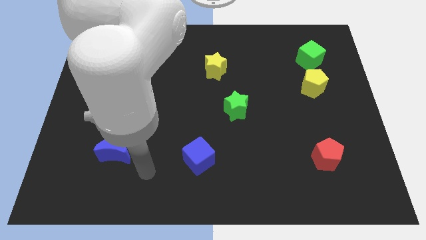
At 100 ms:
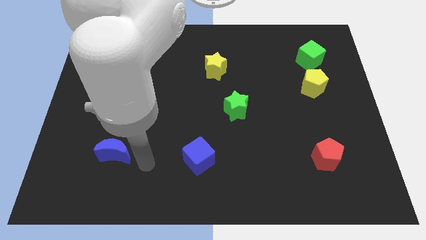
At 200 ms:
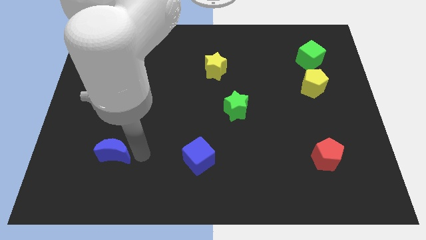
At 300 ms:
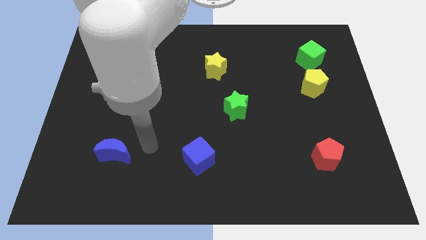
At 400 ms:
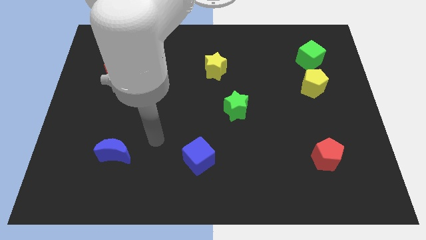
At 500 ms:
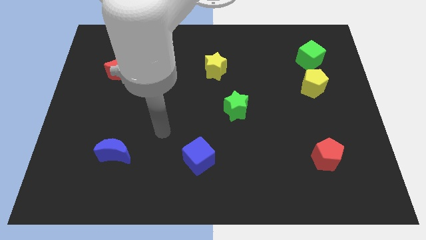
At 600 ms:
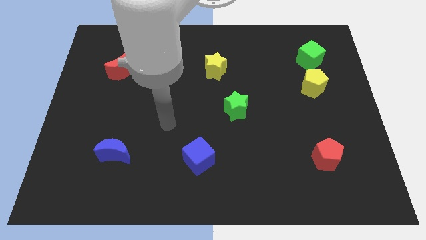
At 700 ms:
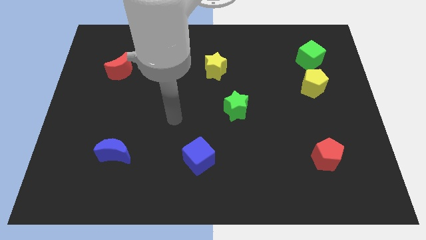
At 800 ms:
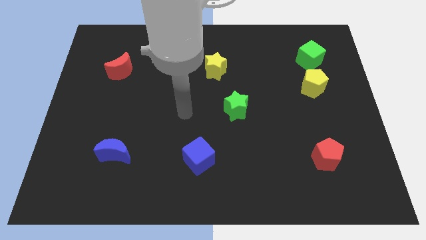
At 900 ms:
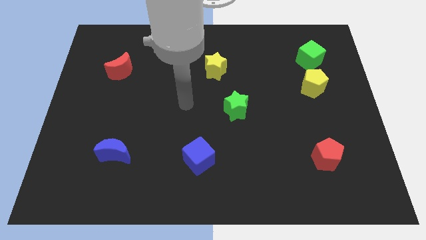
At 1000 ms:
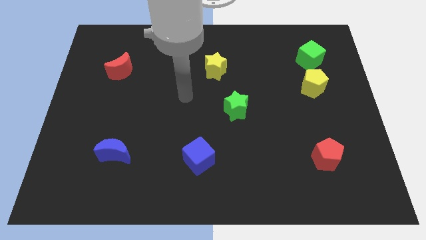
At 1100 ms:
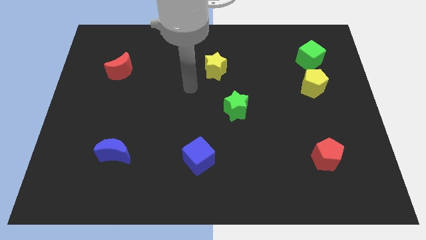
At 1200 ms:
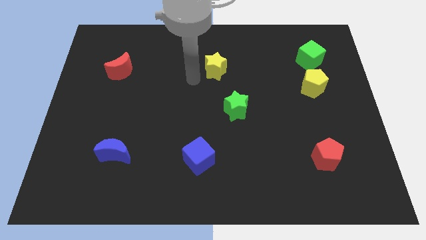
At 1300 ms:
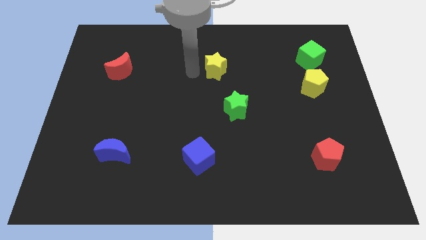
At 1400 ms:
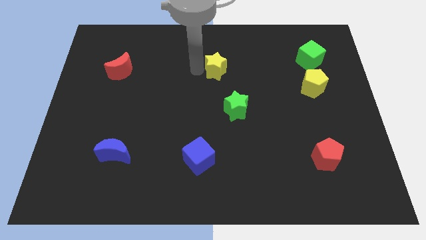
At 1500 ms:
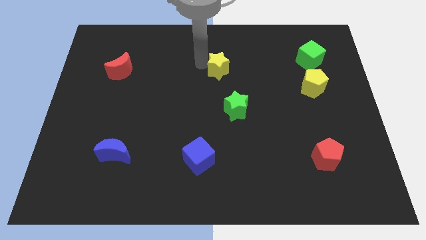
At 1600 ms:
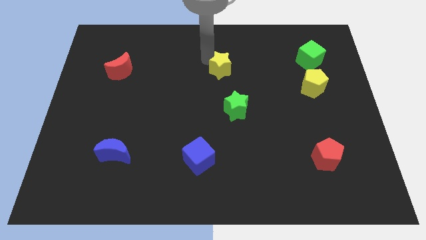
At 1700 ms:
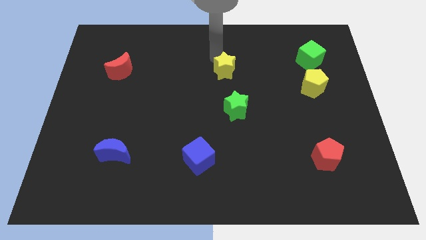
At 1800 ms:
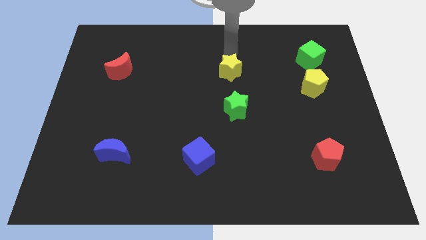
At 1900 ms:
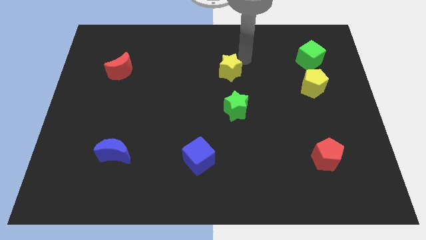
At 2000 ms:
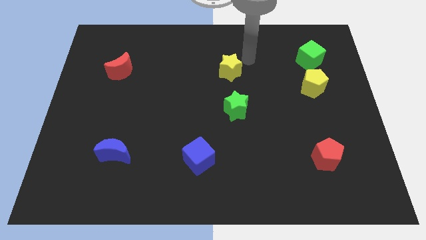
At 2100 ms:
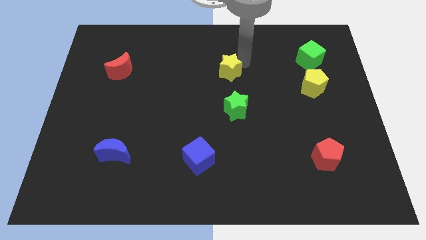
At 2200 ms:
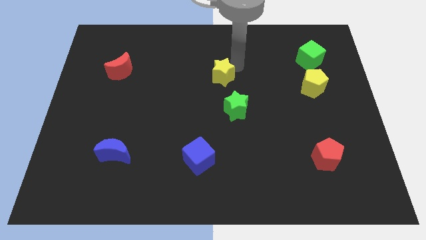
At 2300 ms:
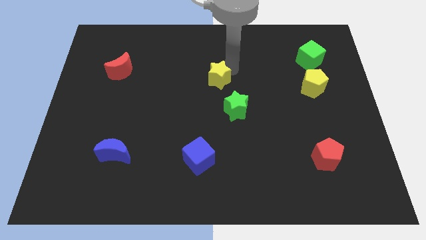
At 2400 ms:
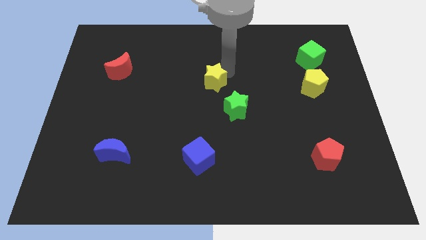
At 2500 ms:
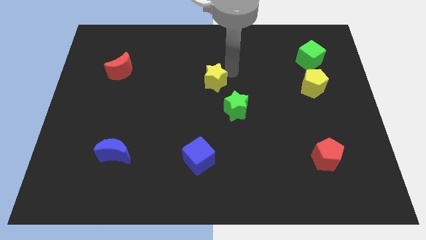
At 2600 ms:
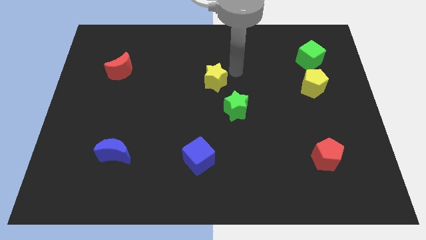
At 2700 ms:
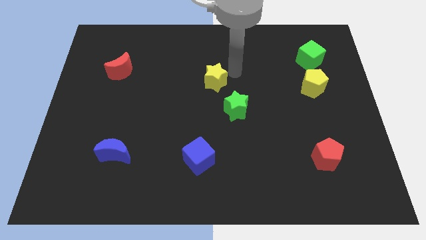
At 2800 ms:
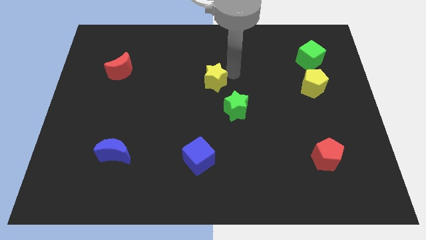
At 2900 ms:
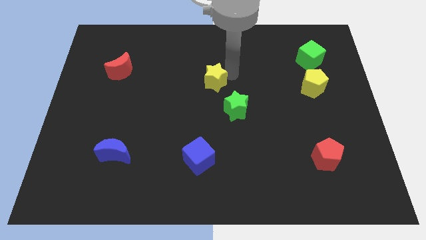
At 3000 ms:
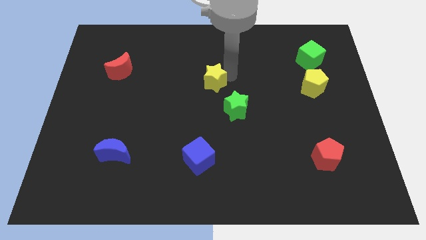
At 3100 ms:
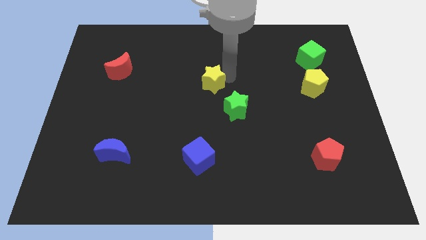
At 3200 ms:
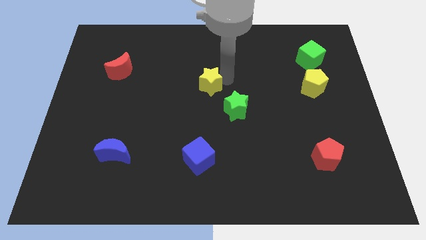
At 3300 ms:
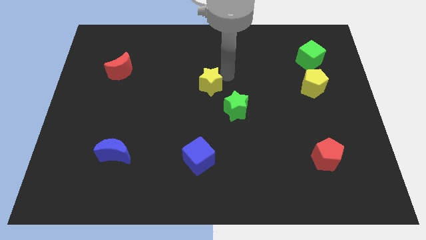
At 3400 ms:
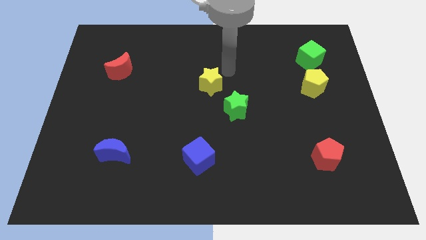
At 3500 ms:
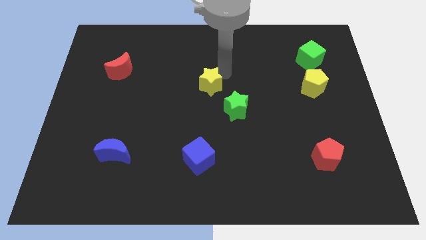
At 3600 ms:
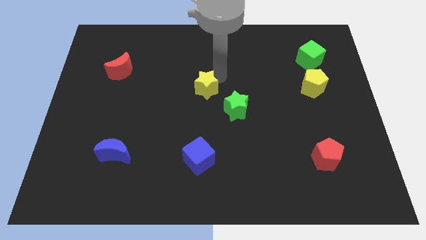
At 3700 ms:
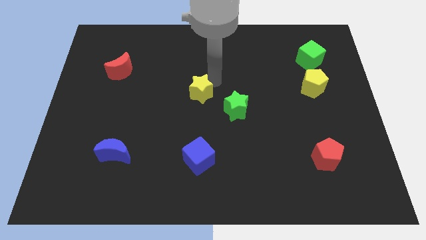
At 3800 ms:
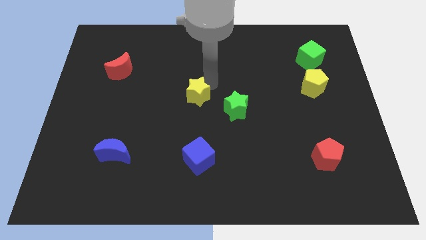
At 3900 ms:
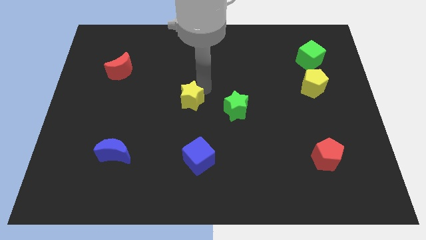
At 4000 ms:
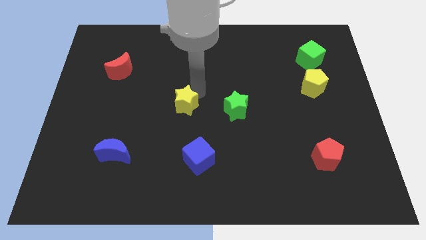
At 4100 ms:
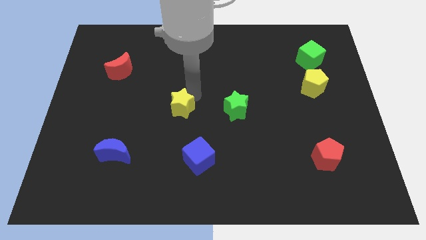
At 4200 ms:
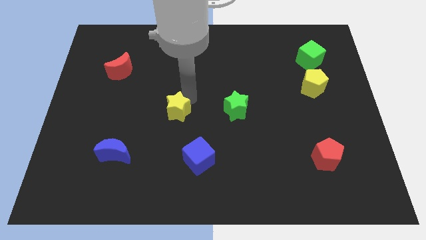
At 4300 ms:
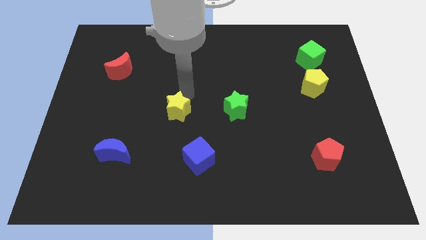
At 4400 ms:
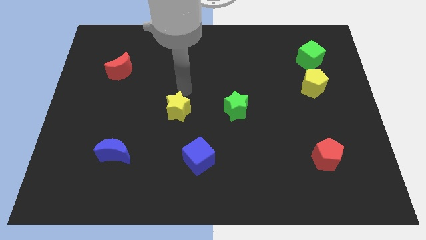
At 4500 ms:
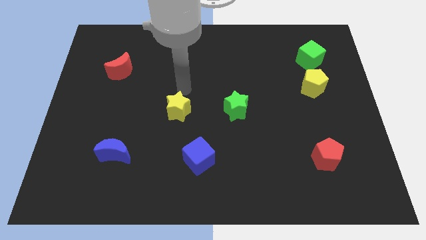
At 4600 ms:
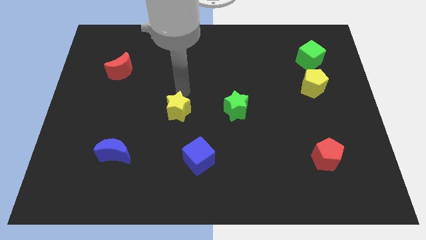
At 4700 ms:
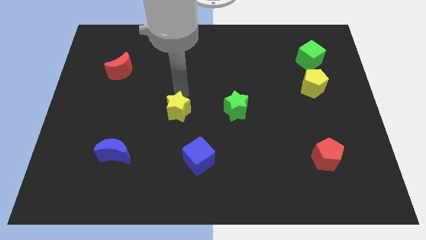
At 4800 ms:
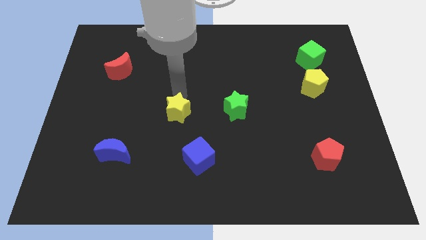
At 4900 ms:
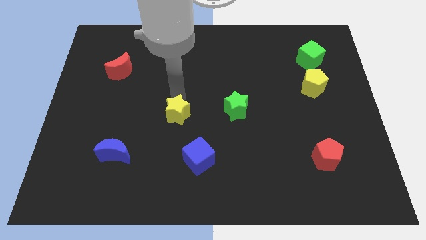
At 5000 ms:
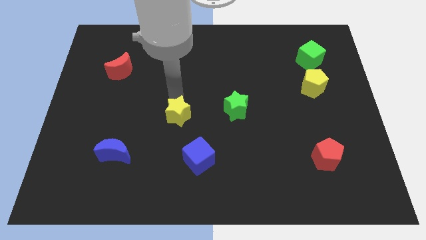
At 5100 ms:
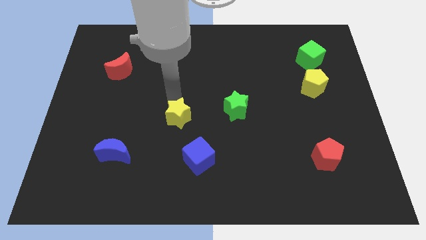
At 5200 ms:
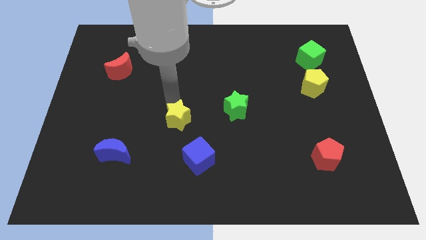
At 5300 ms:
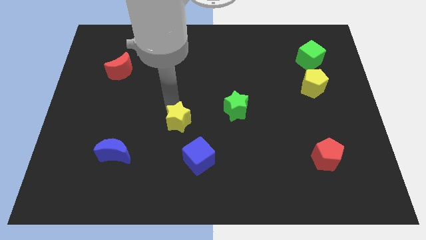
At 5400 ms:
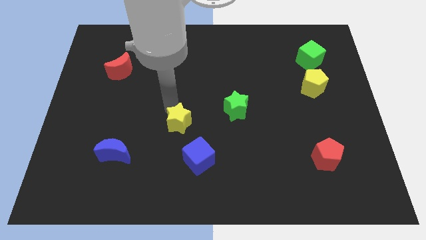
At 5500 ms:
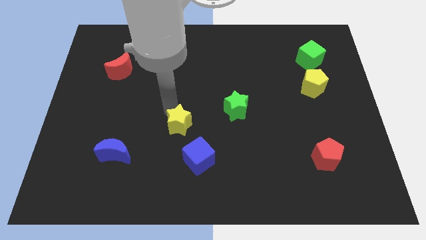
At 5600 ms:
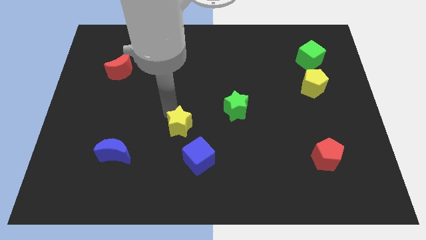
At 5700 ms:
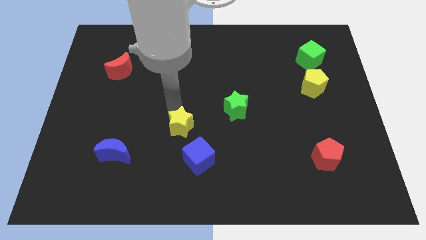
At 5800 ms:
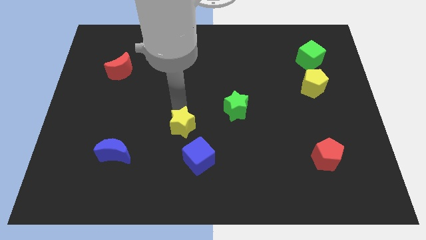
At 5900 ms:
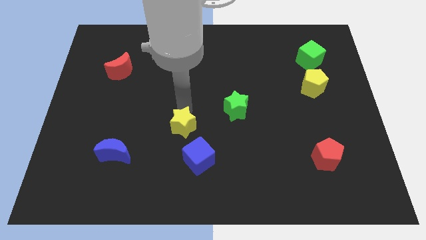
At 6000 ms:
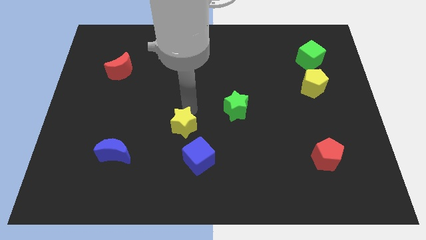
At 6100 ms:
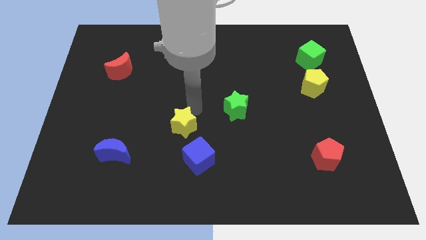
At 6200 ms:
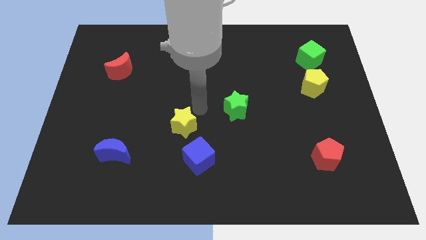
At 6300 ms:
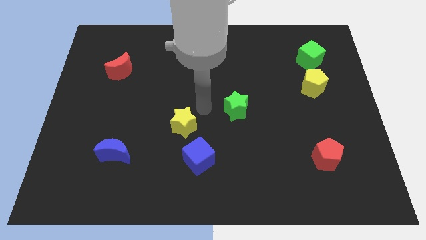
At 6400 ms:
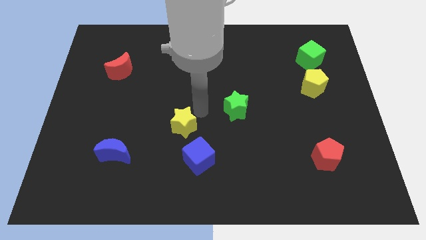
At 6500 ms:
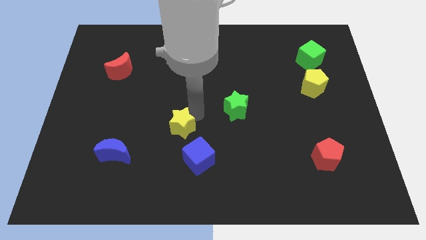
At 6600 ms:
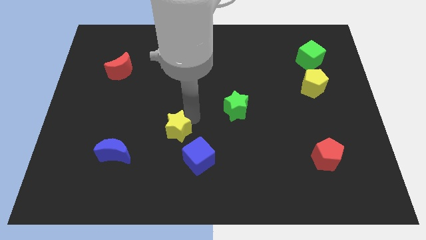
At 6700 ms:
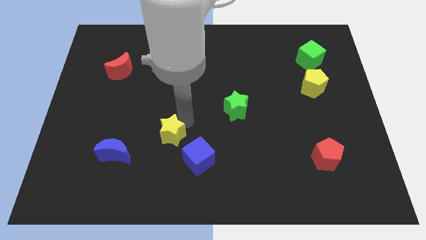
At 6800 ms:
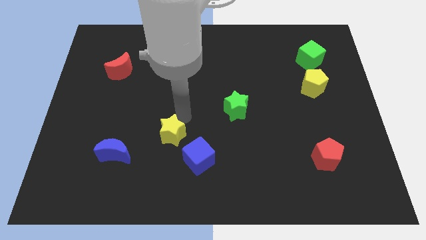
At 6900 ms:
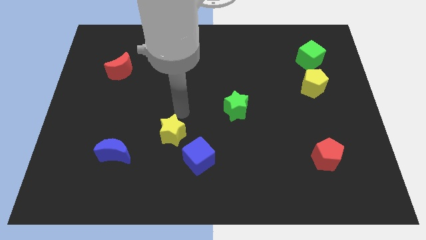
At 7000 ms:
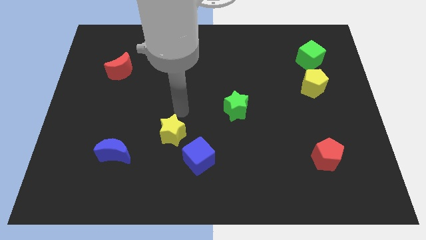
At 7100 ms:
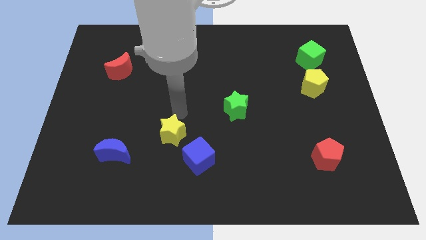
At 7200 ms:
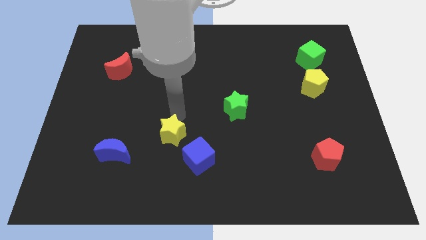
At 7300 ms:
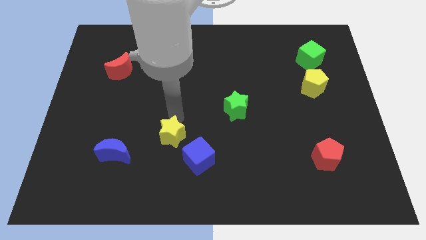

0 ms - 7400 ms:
slide the yellow star to the right side of the blue moon
